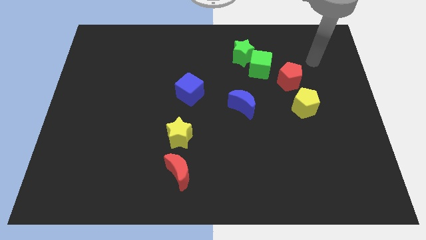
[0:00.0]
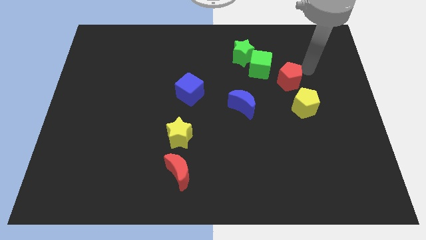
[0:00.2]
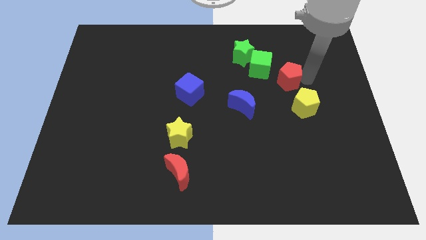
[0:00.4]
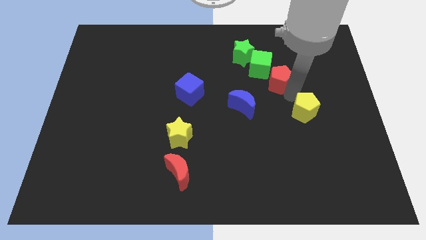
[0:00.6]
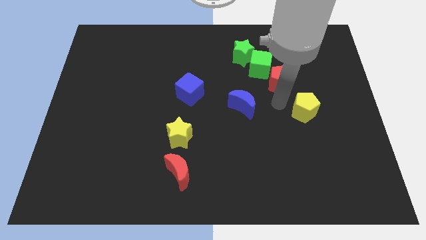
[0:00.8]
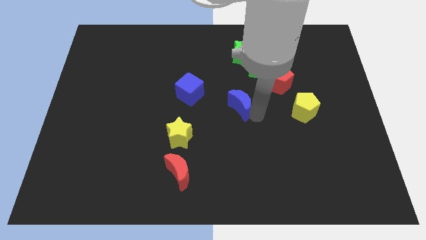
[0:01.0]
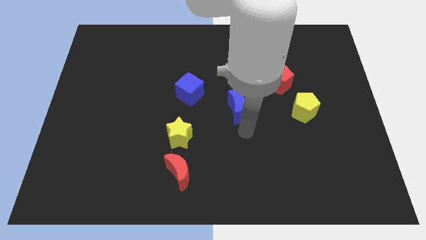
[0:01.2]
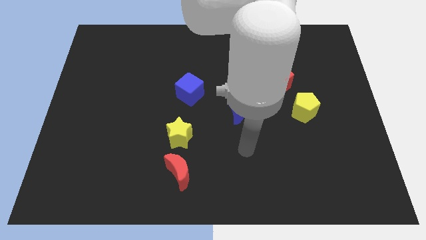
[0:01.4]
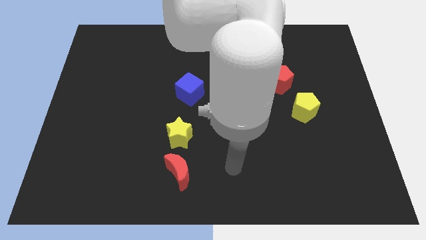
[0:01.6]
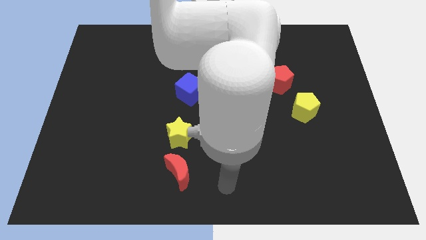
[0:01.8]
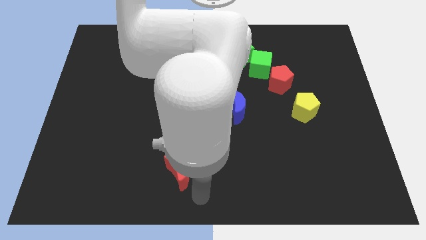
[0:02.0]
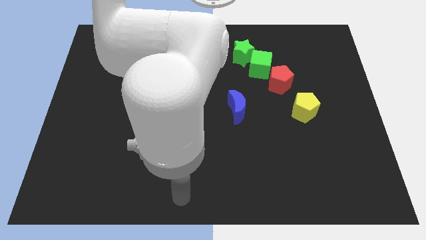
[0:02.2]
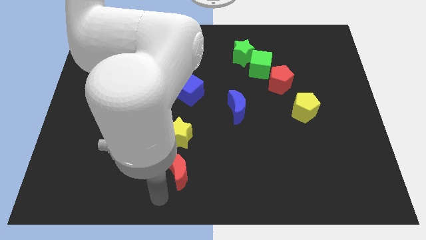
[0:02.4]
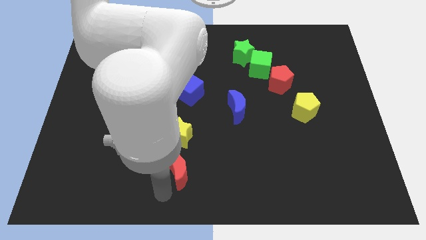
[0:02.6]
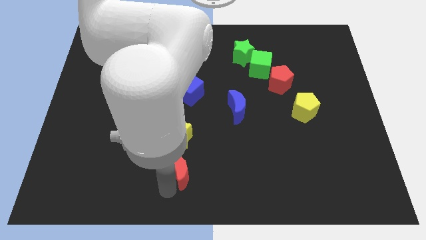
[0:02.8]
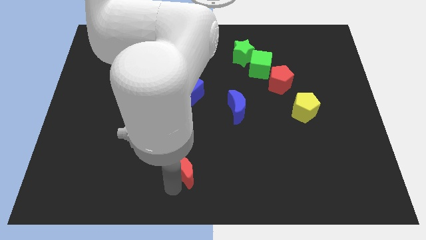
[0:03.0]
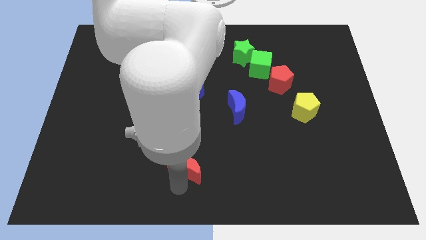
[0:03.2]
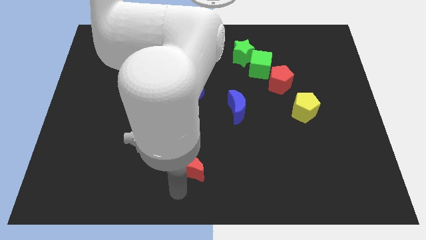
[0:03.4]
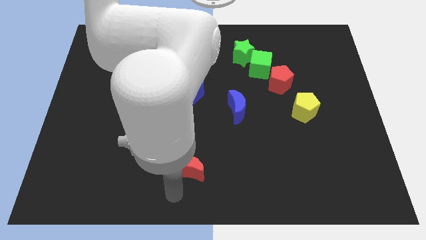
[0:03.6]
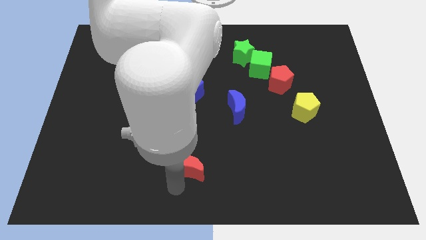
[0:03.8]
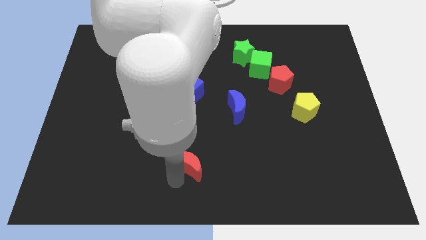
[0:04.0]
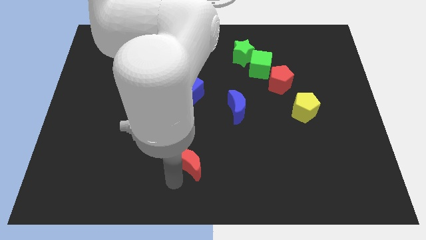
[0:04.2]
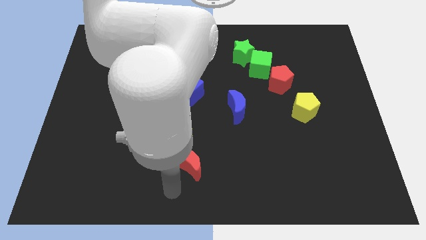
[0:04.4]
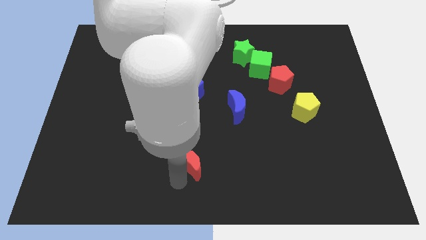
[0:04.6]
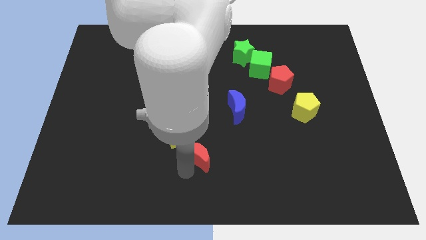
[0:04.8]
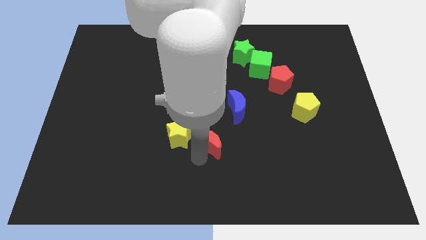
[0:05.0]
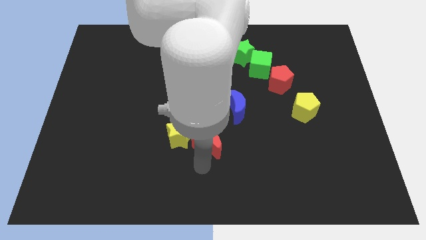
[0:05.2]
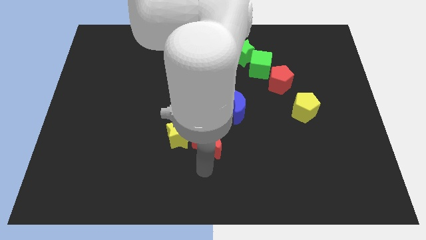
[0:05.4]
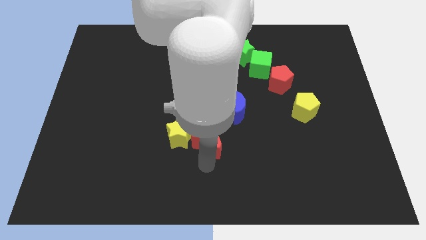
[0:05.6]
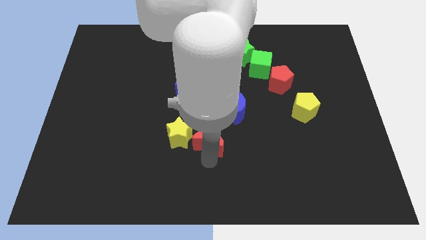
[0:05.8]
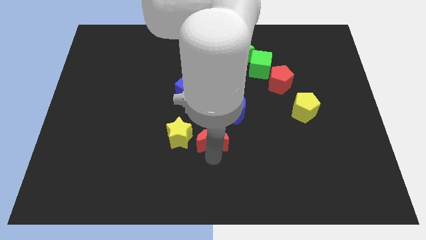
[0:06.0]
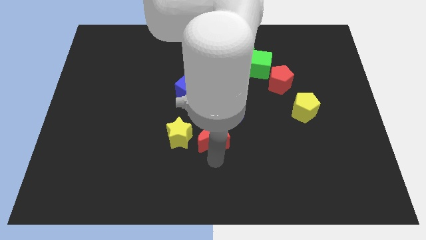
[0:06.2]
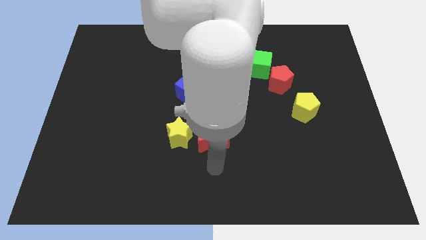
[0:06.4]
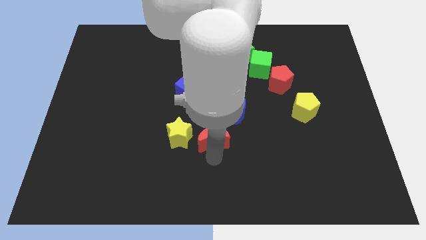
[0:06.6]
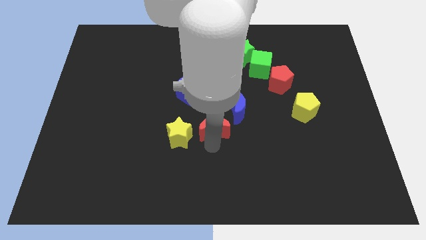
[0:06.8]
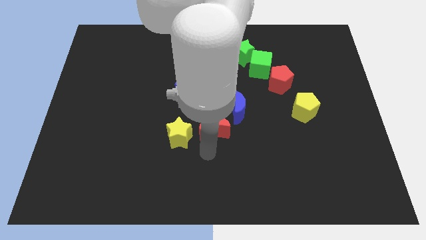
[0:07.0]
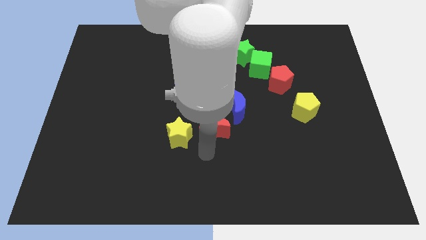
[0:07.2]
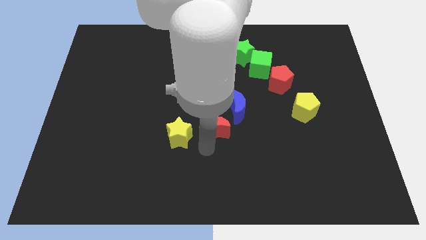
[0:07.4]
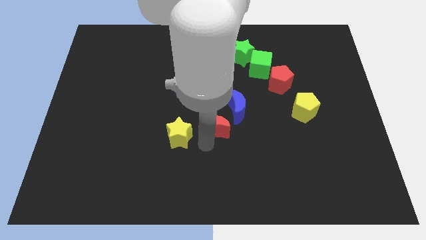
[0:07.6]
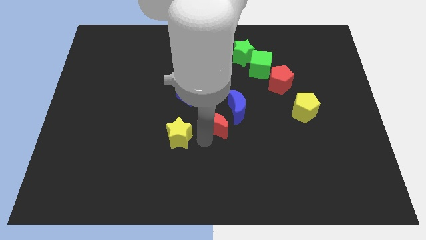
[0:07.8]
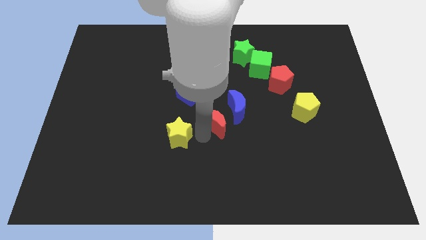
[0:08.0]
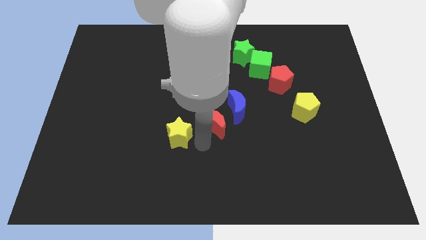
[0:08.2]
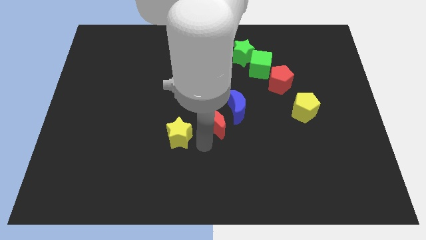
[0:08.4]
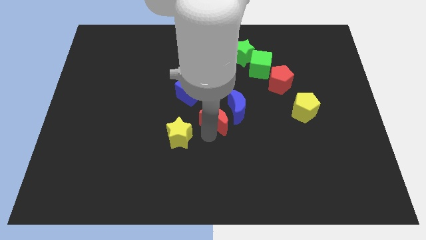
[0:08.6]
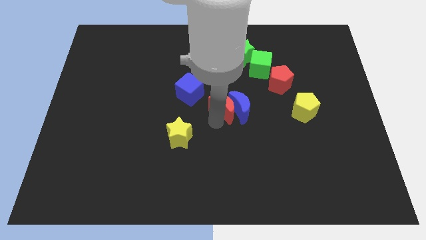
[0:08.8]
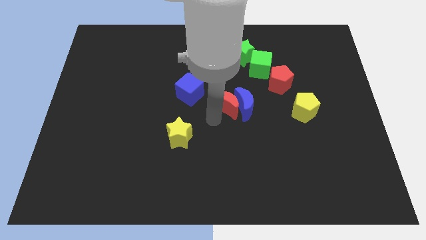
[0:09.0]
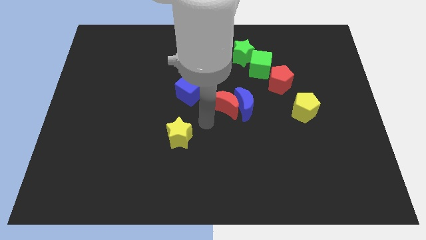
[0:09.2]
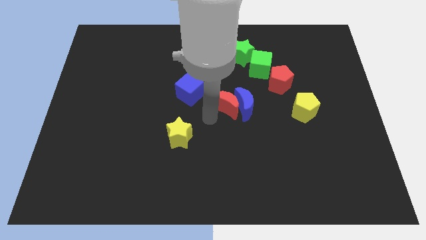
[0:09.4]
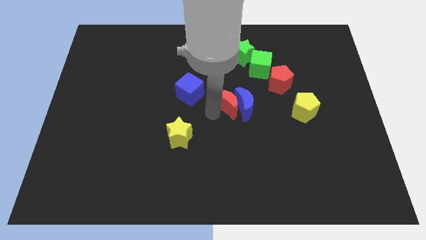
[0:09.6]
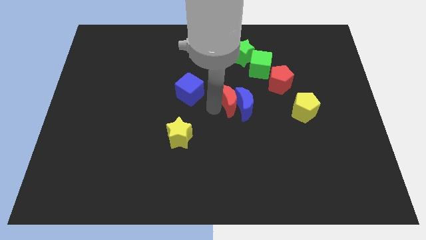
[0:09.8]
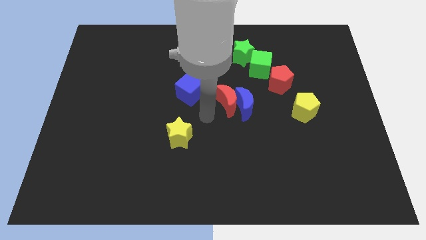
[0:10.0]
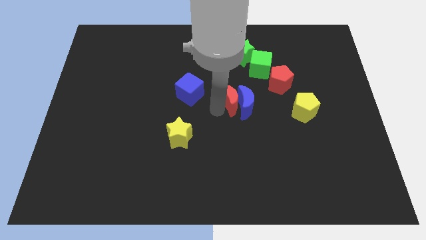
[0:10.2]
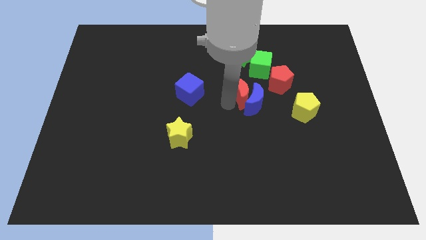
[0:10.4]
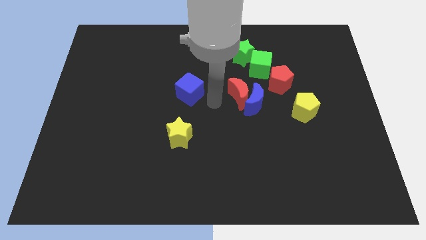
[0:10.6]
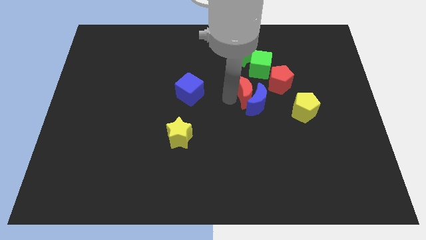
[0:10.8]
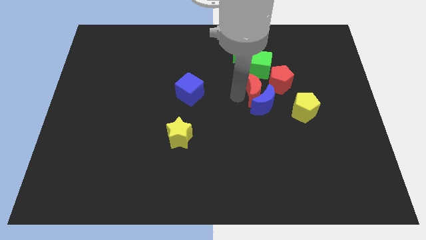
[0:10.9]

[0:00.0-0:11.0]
push the red moon to the top right of the blue moon
